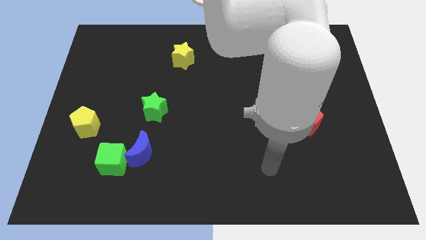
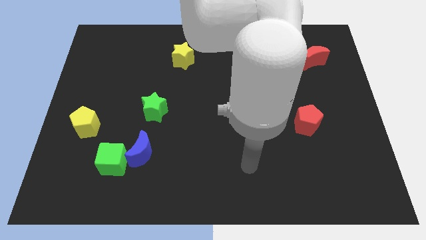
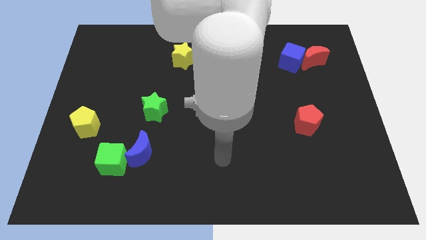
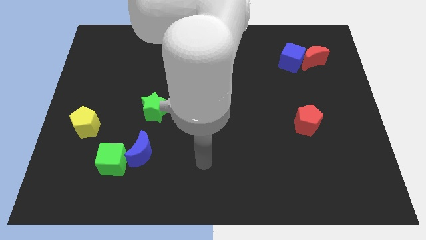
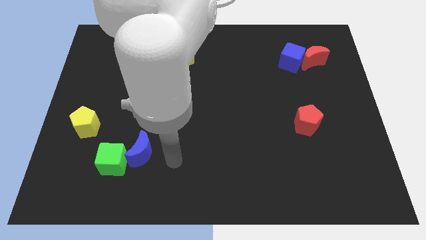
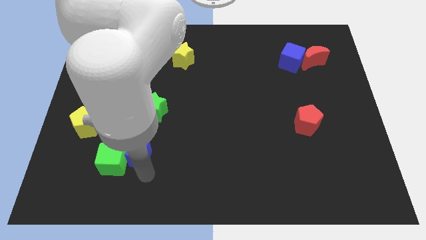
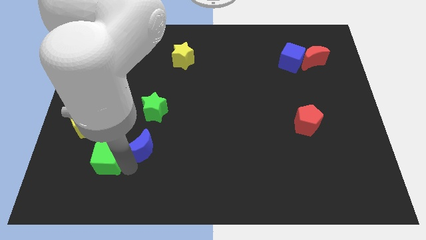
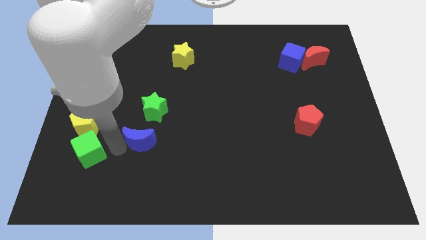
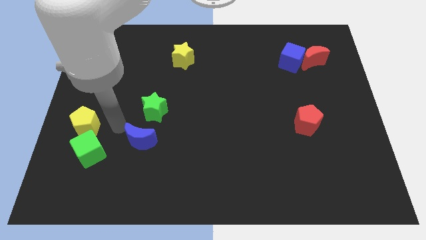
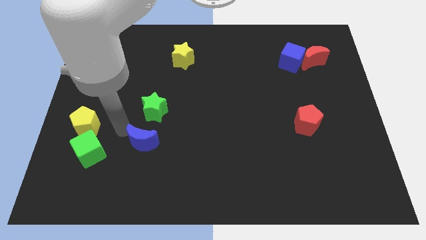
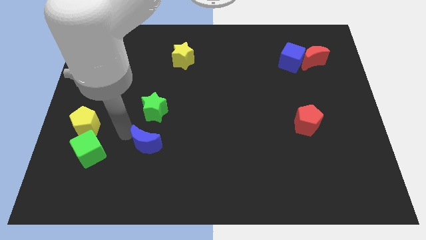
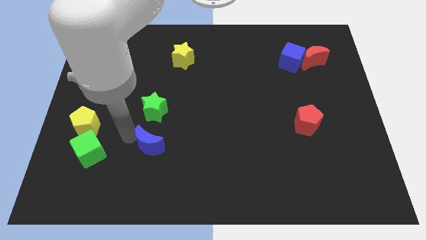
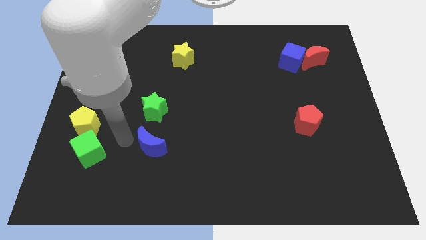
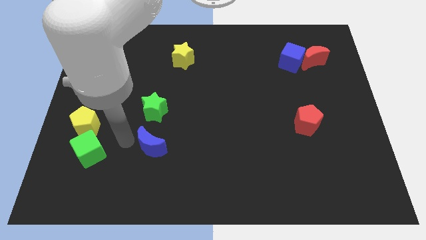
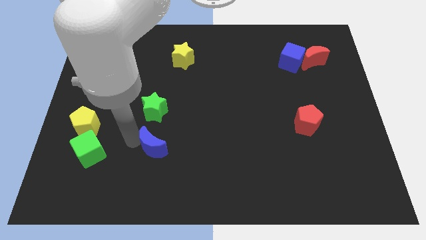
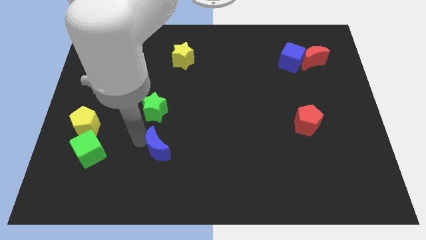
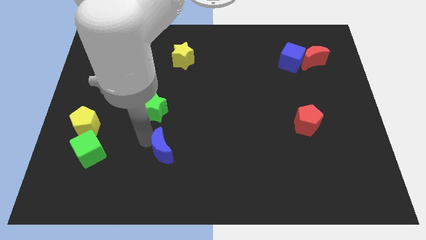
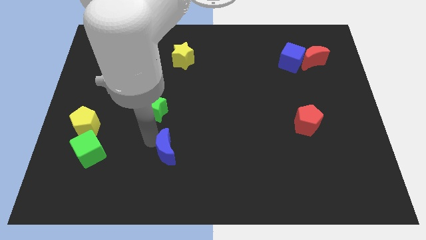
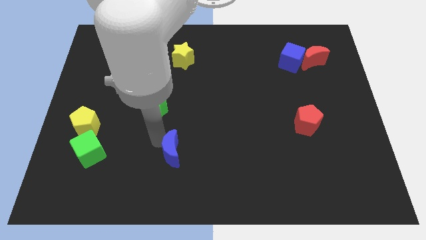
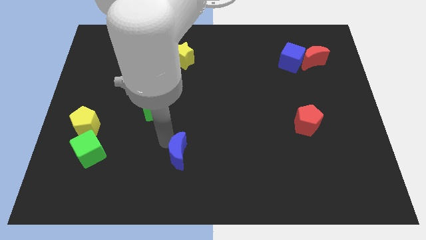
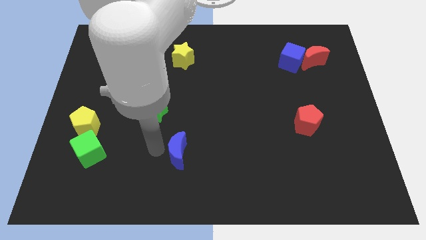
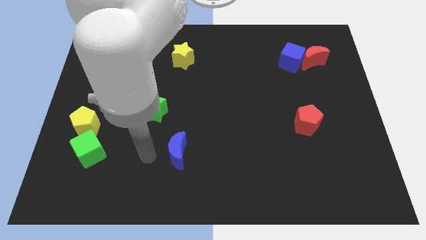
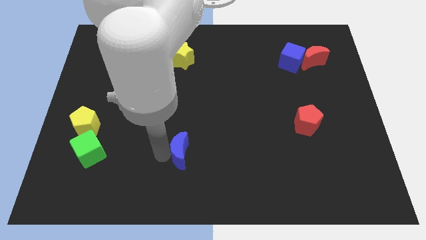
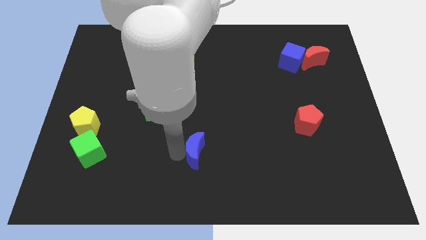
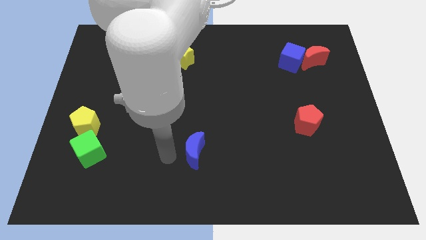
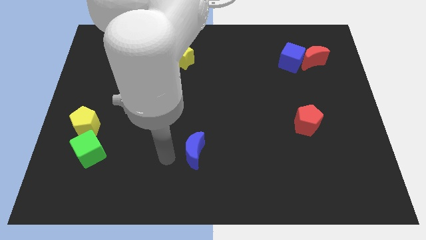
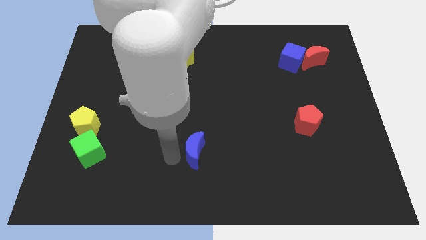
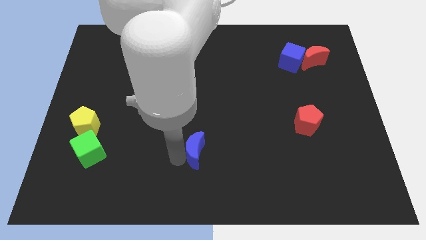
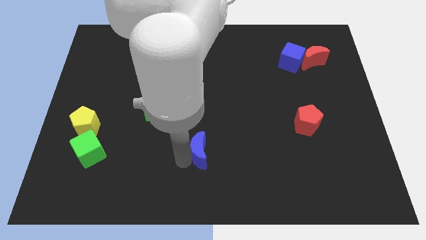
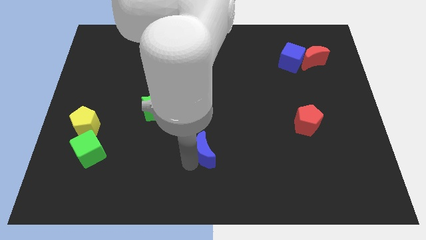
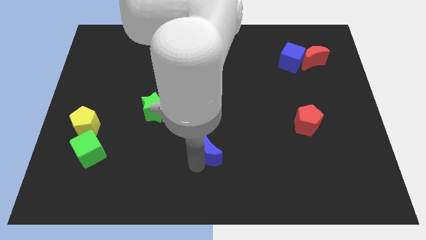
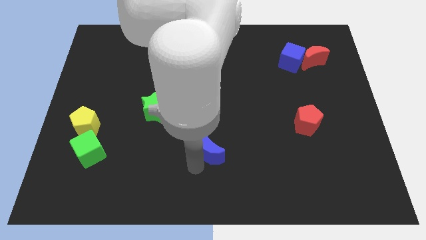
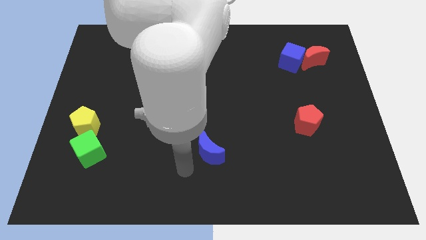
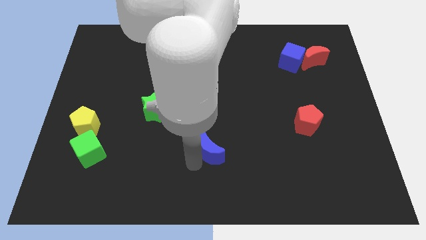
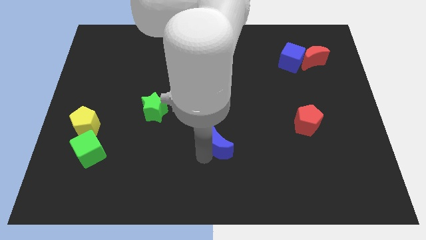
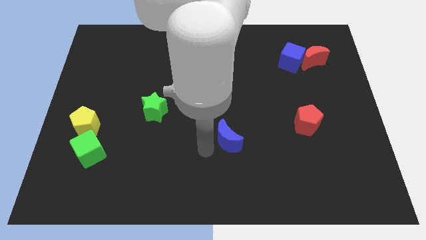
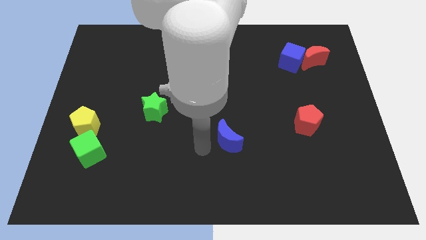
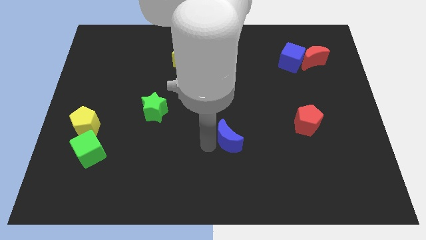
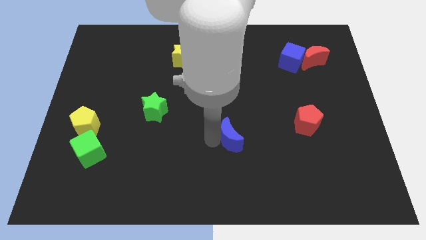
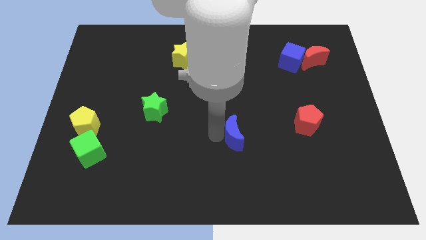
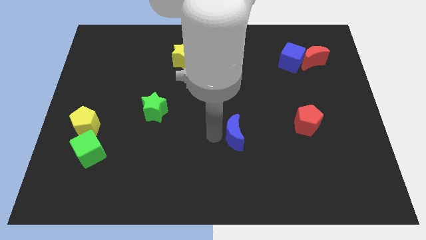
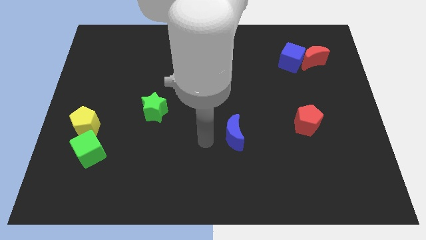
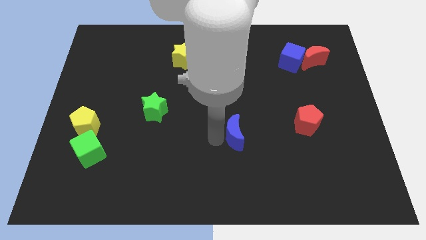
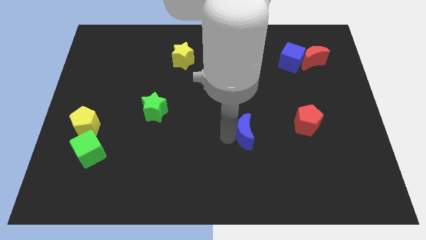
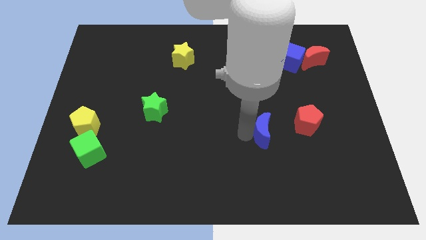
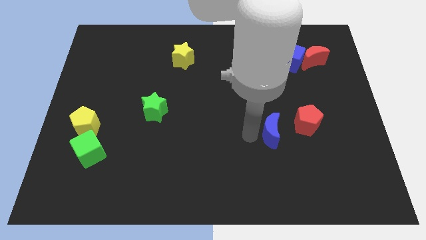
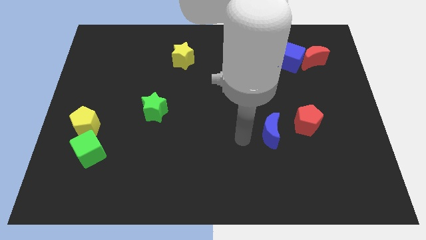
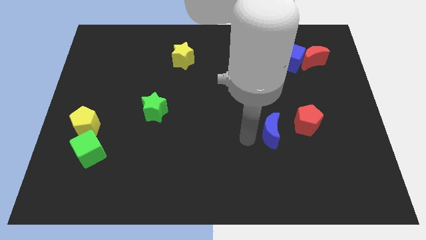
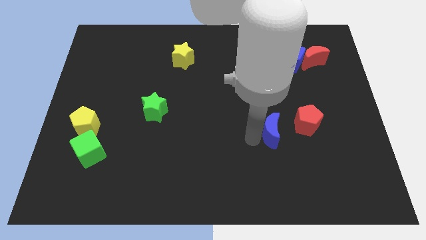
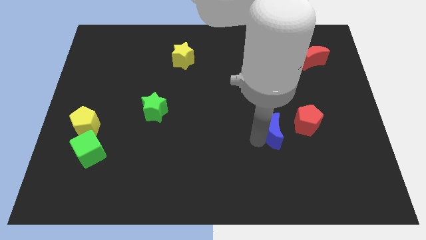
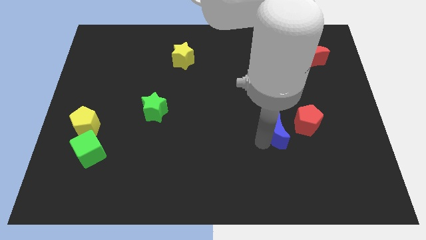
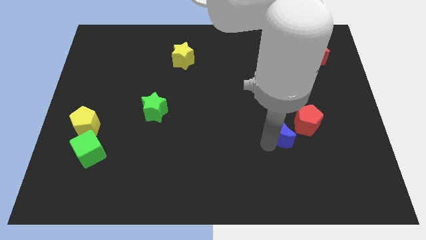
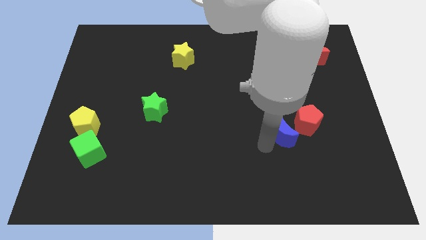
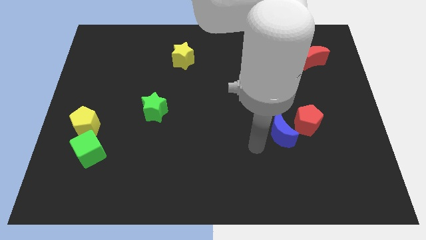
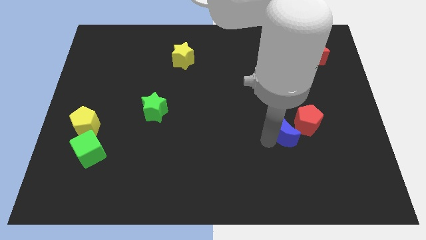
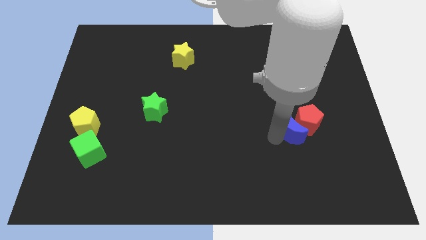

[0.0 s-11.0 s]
push the blue moon close to the red pentagon
